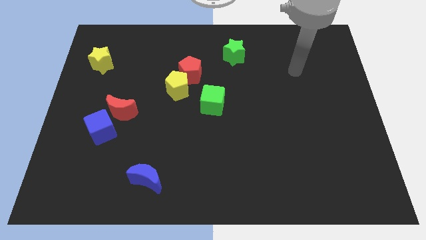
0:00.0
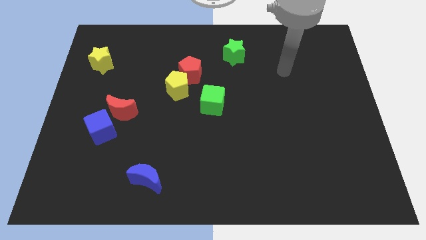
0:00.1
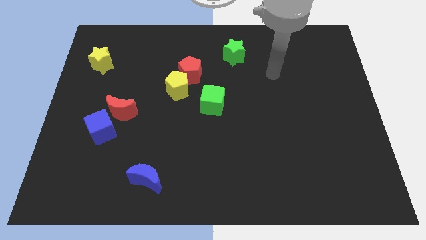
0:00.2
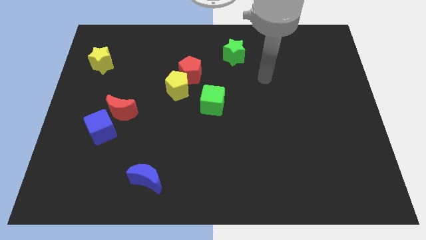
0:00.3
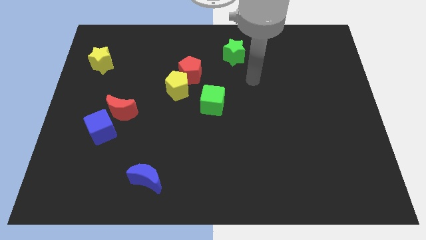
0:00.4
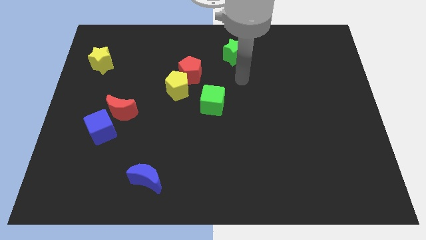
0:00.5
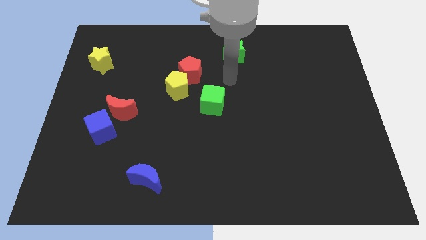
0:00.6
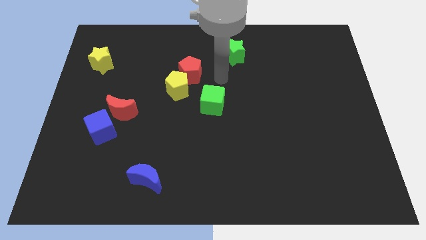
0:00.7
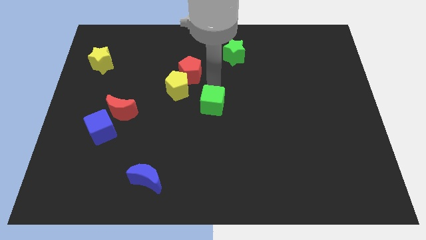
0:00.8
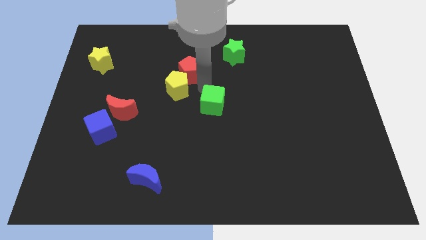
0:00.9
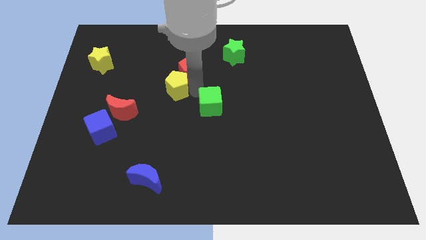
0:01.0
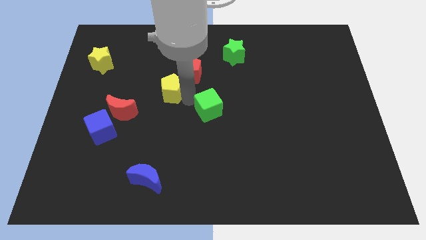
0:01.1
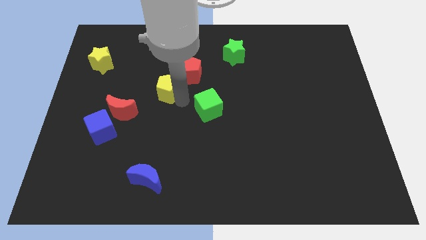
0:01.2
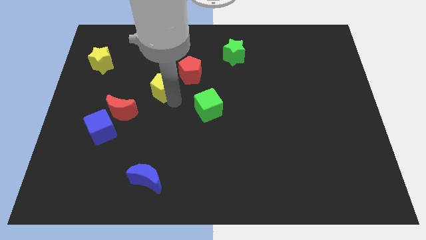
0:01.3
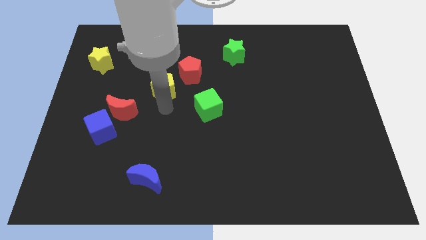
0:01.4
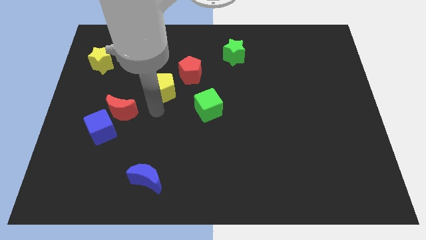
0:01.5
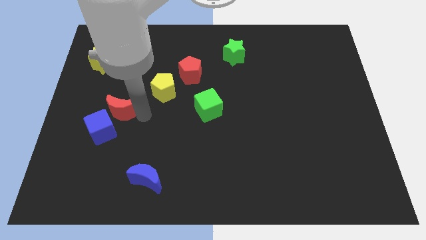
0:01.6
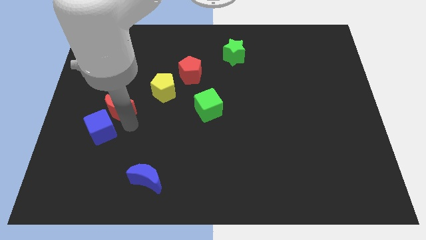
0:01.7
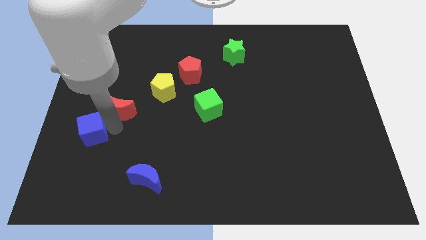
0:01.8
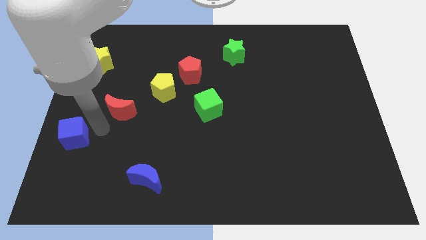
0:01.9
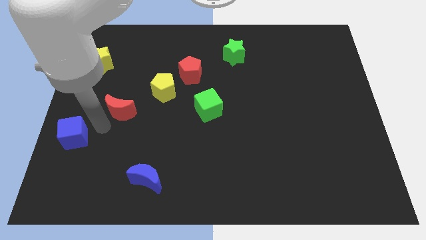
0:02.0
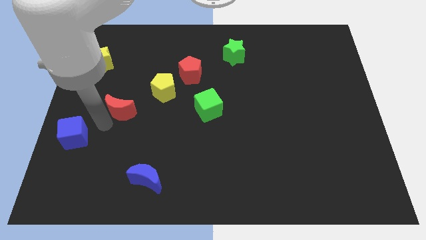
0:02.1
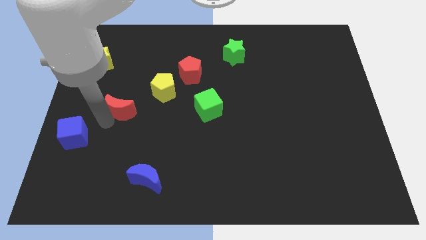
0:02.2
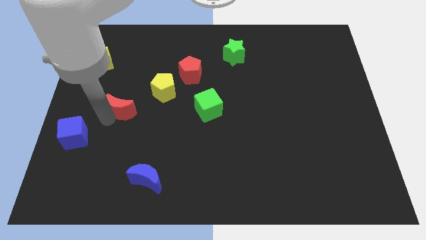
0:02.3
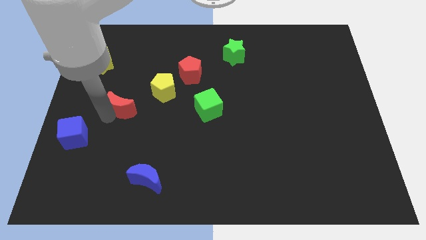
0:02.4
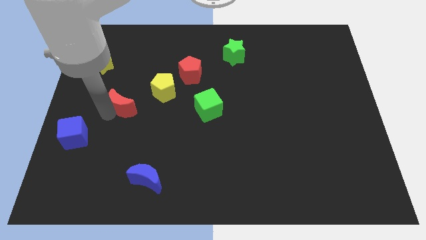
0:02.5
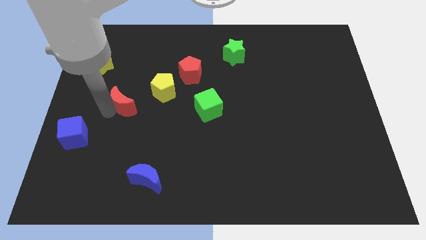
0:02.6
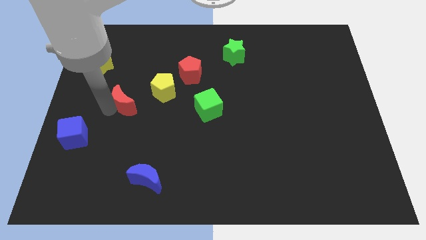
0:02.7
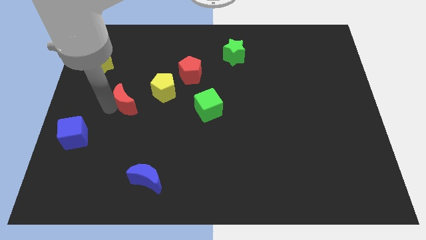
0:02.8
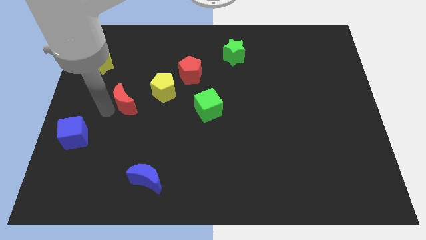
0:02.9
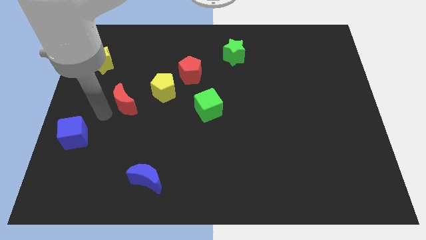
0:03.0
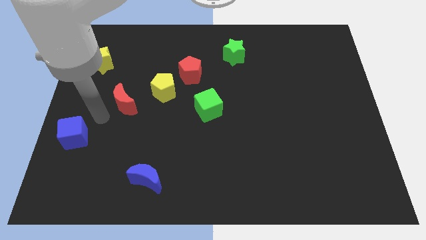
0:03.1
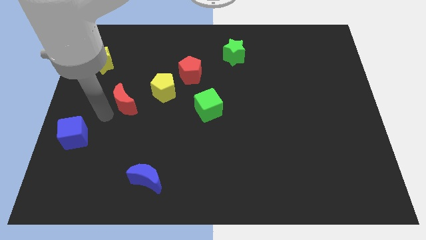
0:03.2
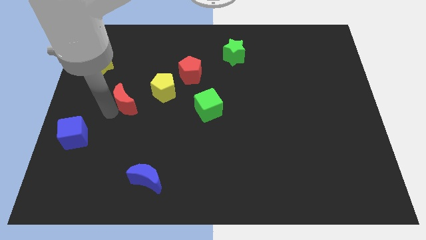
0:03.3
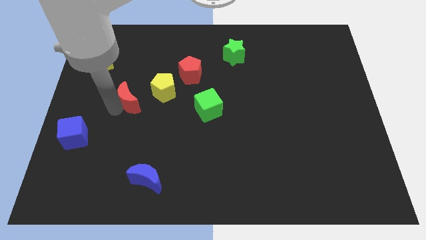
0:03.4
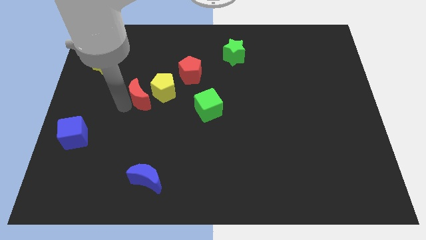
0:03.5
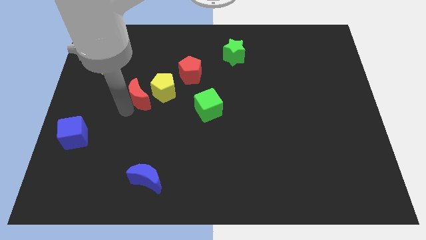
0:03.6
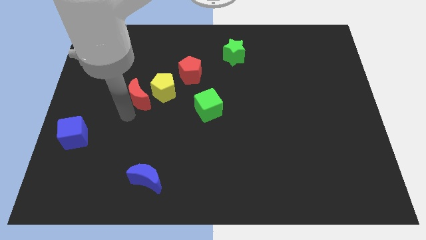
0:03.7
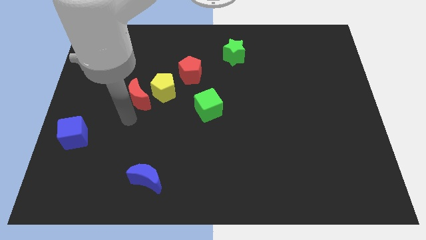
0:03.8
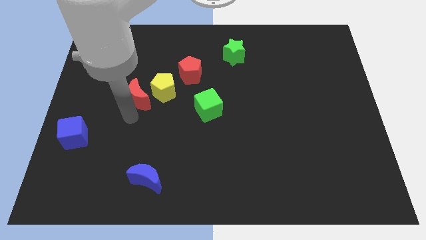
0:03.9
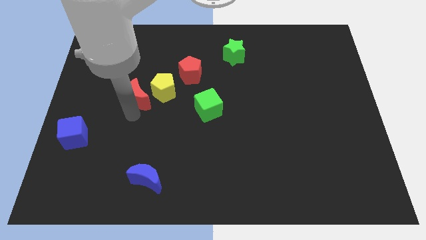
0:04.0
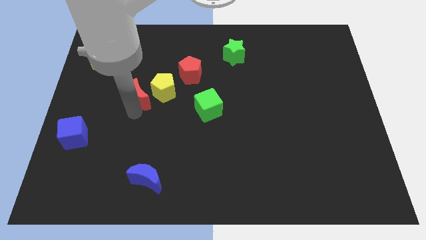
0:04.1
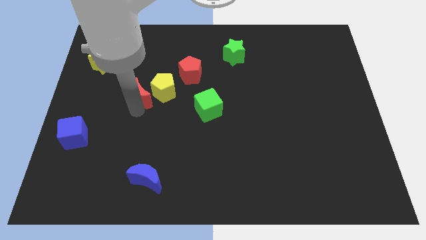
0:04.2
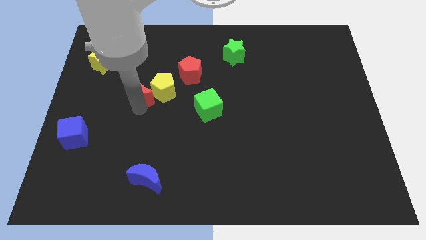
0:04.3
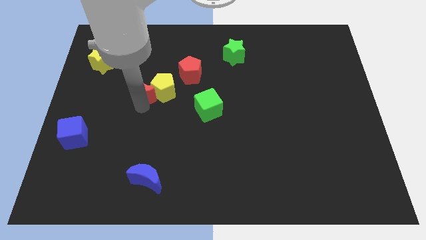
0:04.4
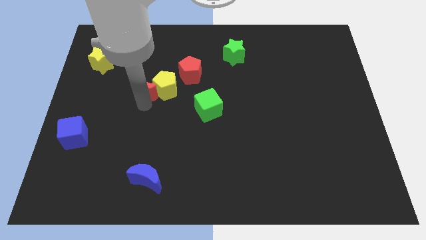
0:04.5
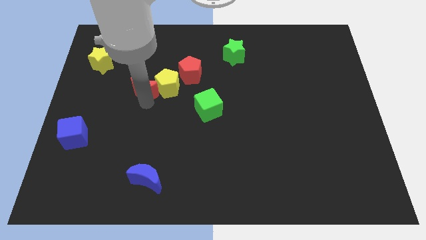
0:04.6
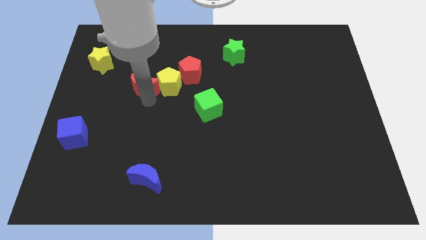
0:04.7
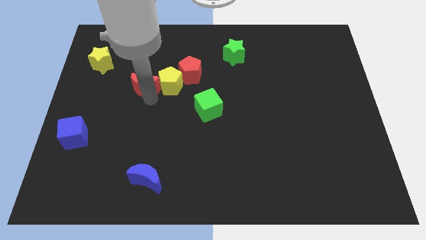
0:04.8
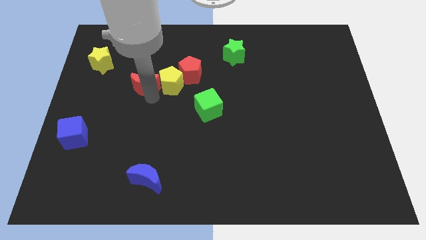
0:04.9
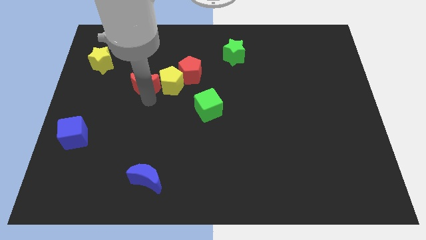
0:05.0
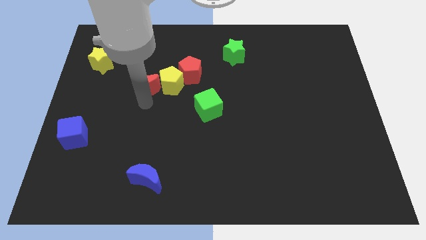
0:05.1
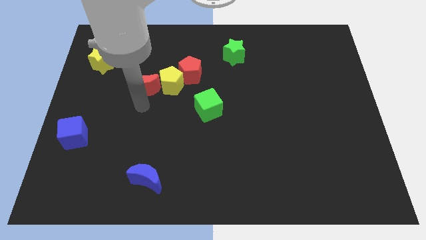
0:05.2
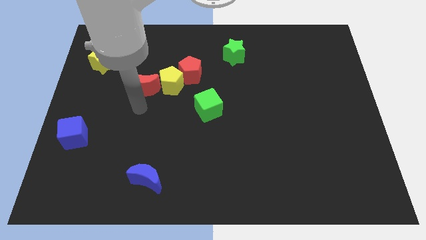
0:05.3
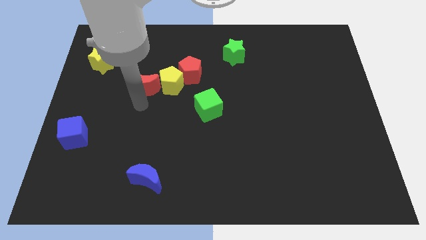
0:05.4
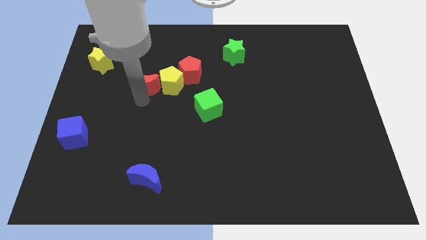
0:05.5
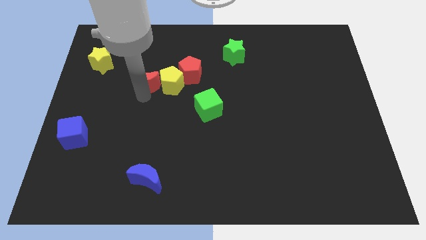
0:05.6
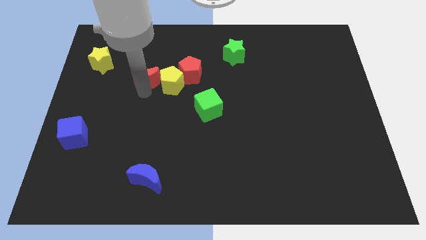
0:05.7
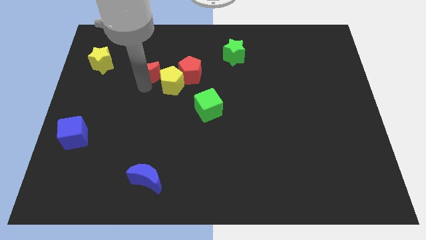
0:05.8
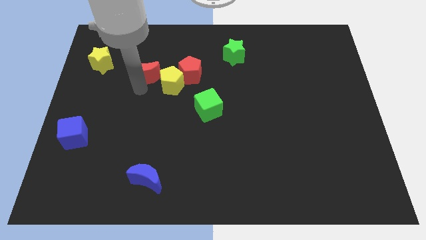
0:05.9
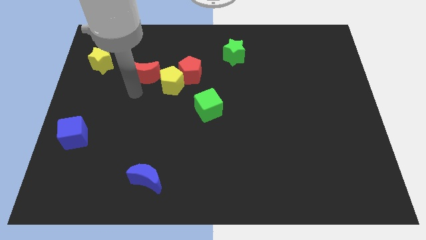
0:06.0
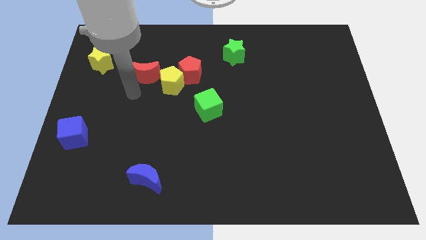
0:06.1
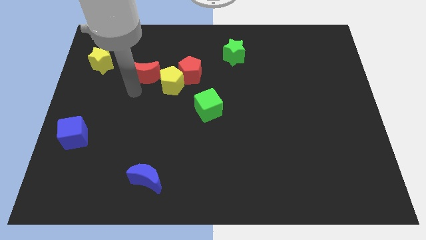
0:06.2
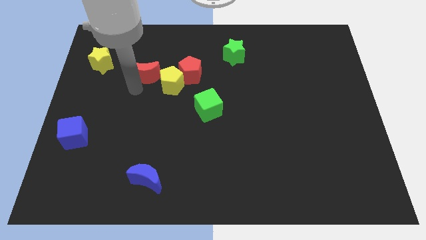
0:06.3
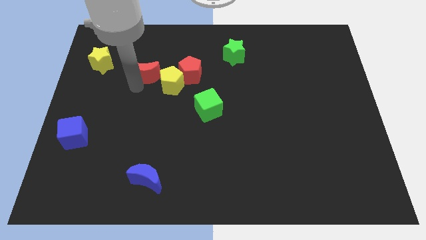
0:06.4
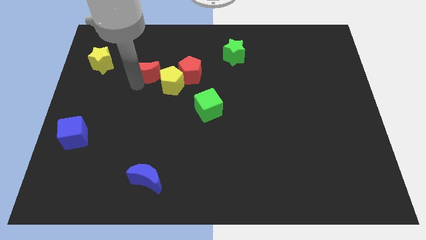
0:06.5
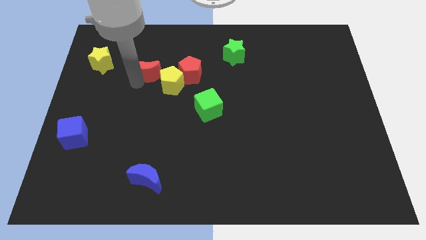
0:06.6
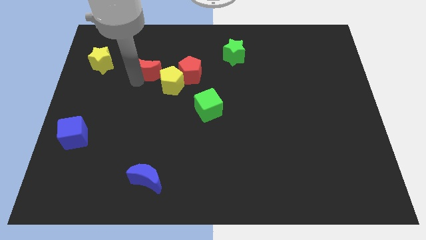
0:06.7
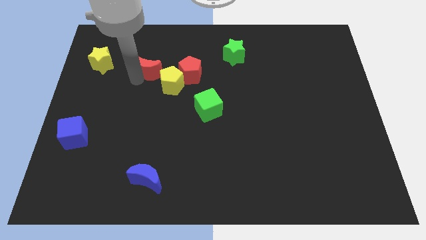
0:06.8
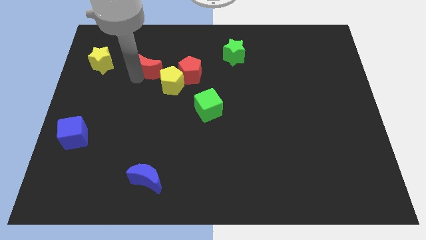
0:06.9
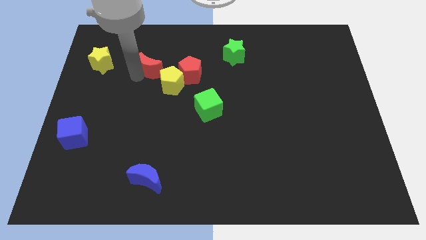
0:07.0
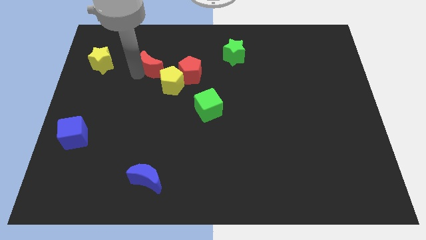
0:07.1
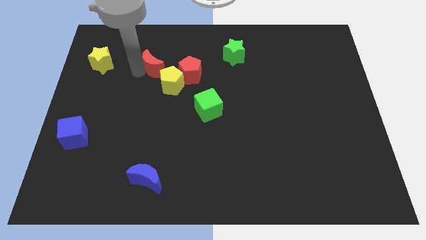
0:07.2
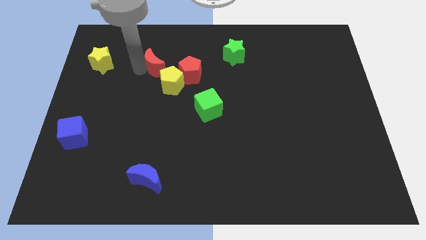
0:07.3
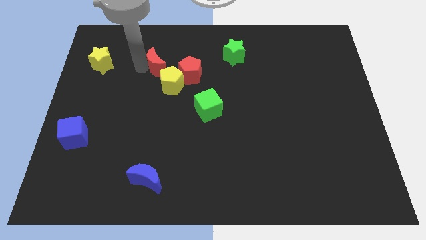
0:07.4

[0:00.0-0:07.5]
slide the red moon to the top left of the red pentagon
